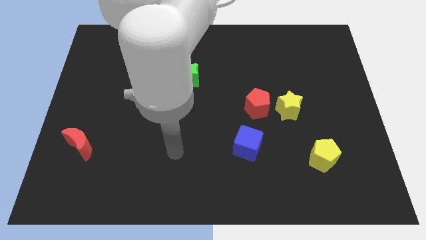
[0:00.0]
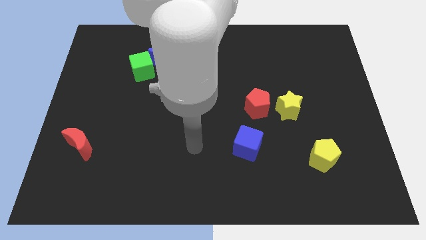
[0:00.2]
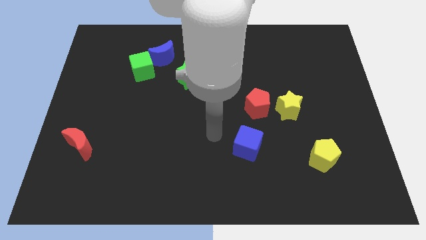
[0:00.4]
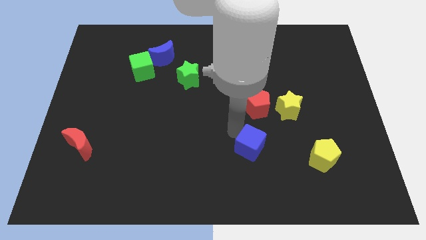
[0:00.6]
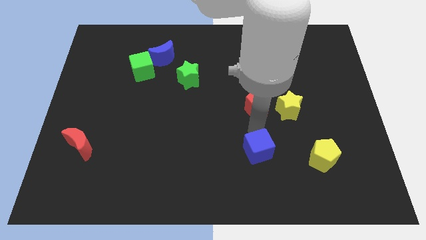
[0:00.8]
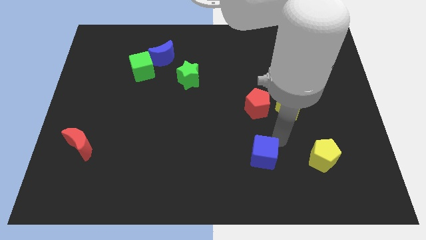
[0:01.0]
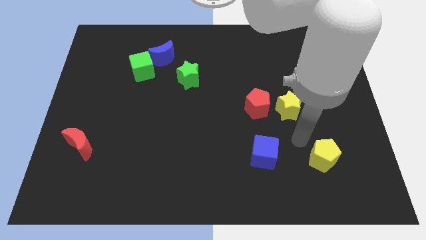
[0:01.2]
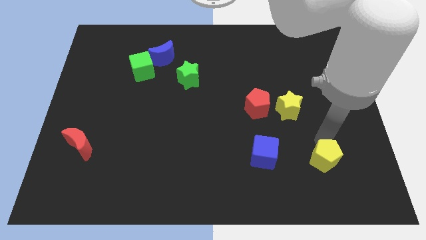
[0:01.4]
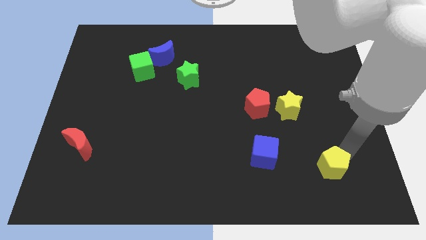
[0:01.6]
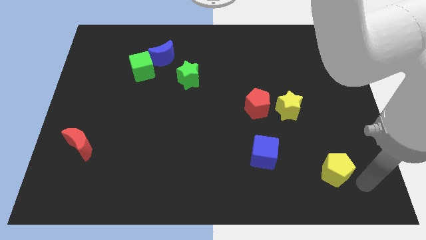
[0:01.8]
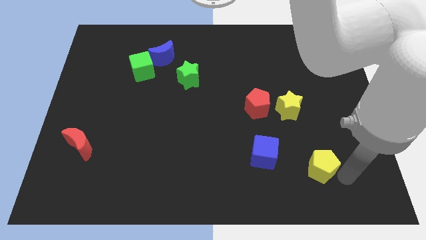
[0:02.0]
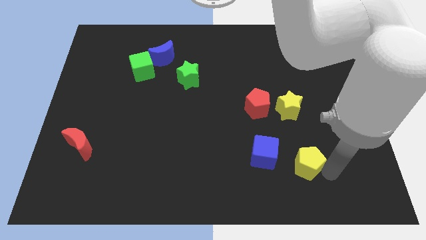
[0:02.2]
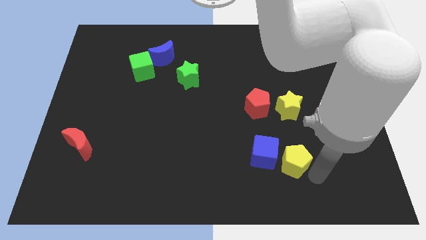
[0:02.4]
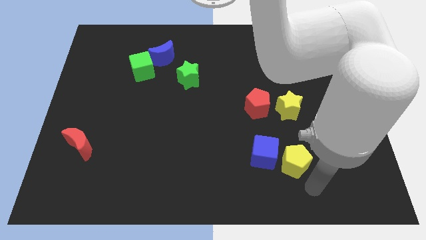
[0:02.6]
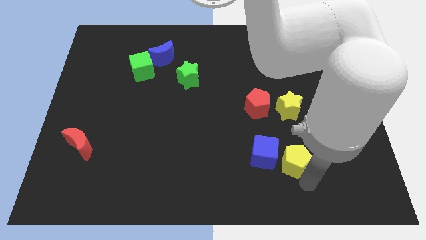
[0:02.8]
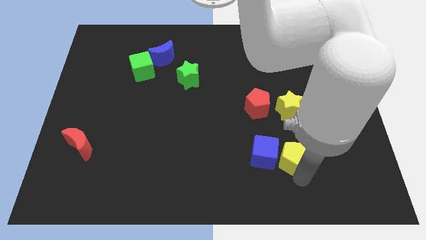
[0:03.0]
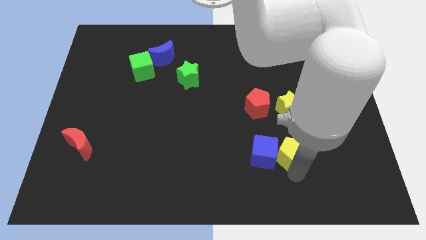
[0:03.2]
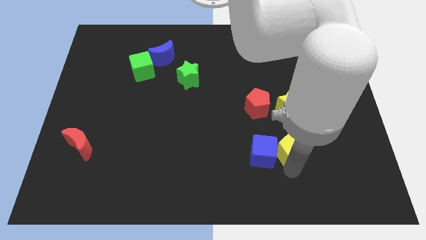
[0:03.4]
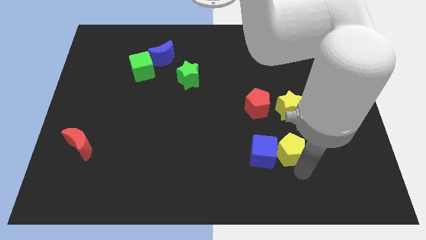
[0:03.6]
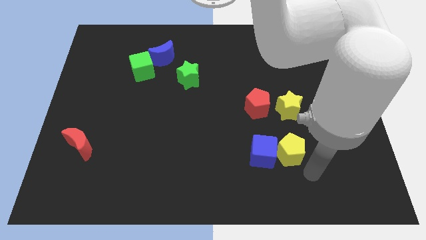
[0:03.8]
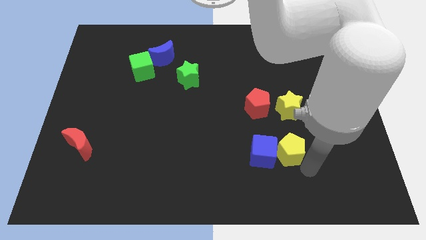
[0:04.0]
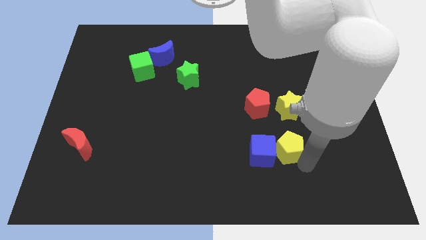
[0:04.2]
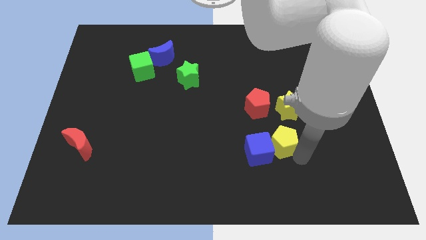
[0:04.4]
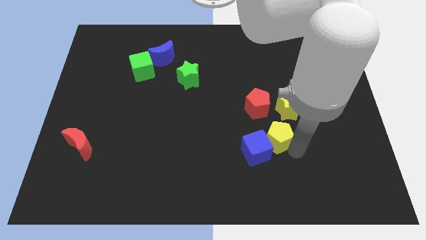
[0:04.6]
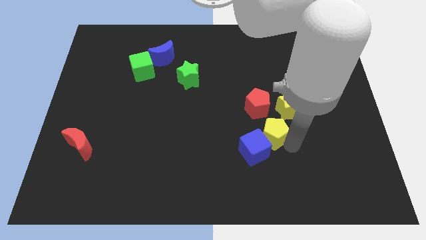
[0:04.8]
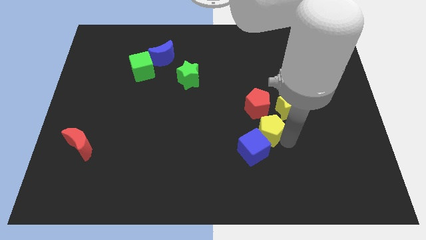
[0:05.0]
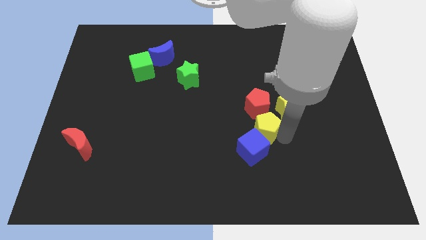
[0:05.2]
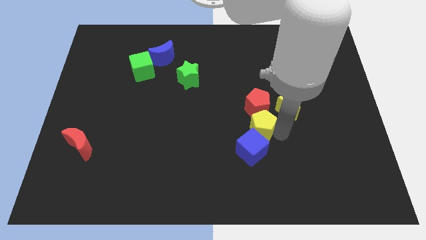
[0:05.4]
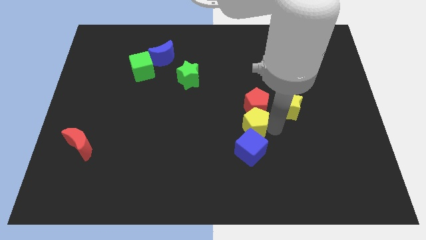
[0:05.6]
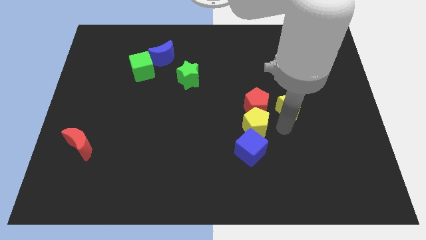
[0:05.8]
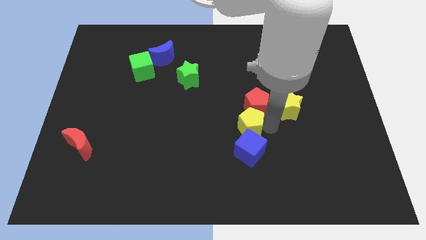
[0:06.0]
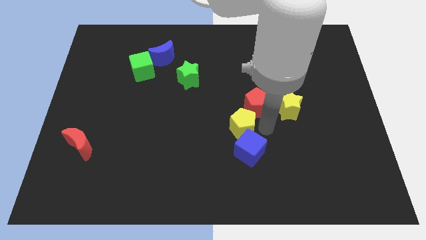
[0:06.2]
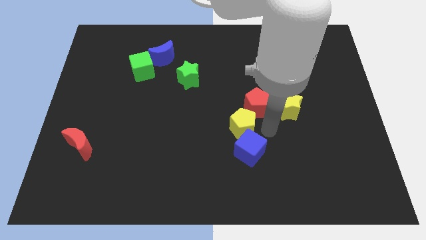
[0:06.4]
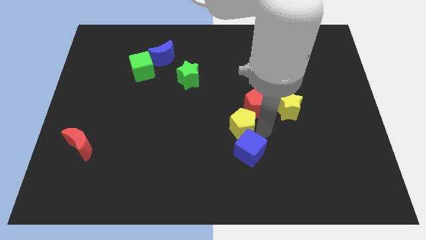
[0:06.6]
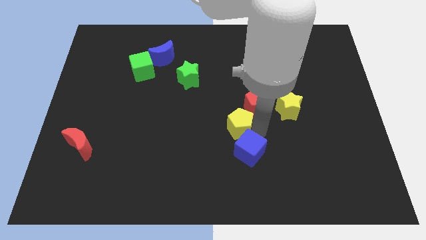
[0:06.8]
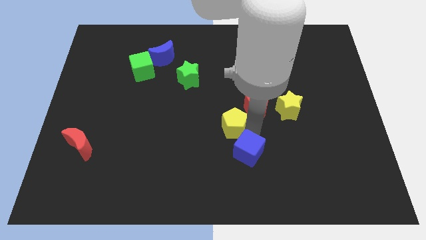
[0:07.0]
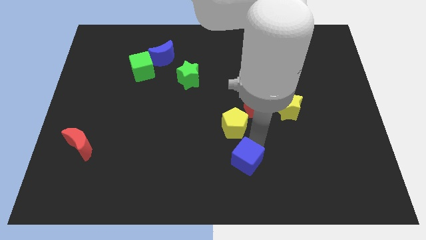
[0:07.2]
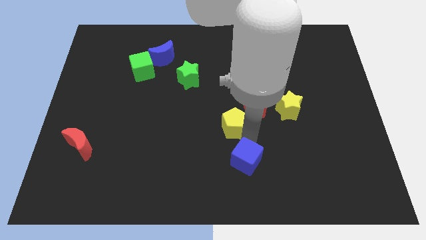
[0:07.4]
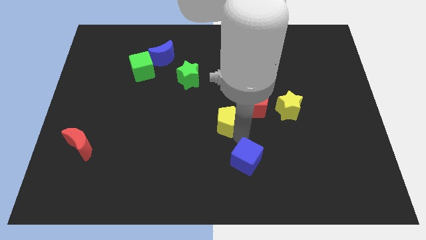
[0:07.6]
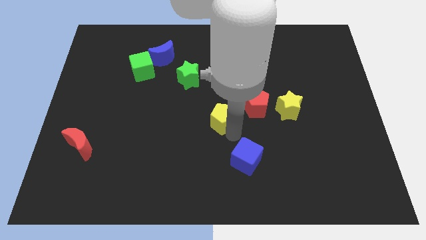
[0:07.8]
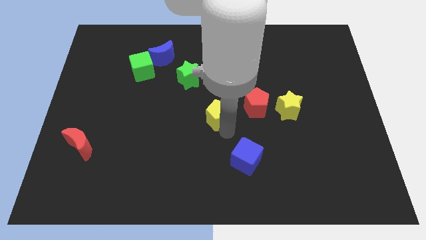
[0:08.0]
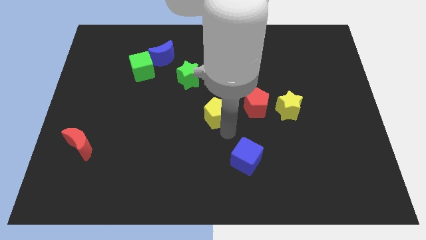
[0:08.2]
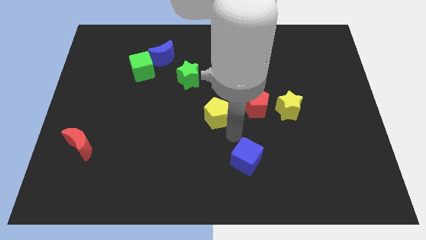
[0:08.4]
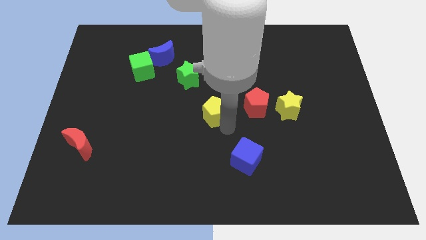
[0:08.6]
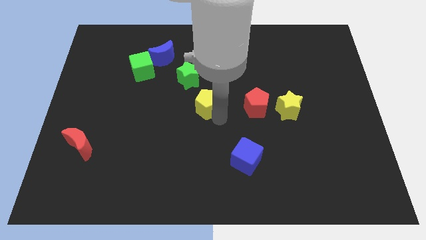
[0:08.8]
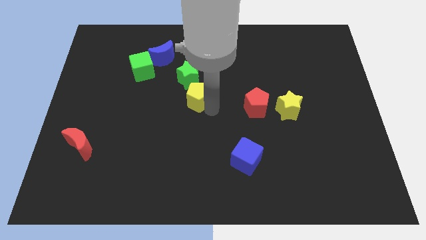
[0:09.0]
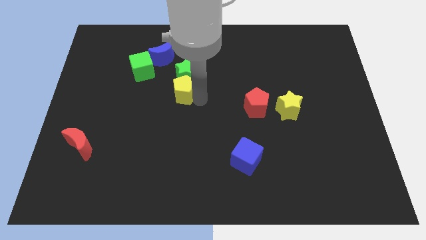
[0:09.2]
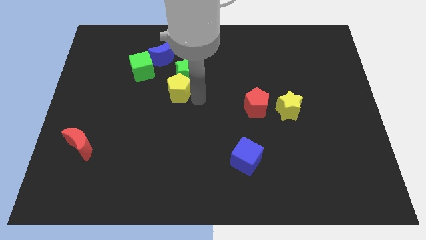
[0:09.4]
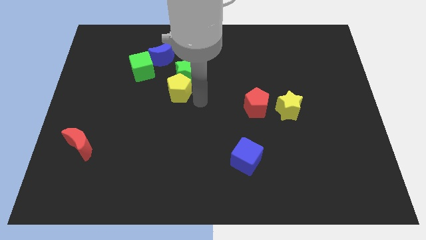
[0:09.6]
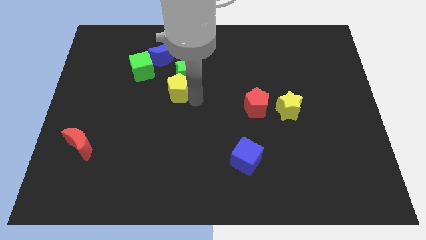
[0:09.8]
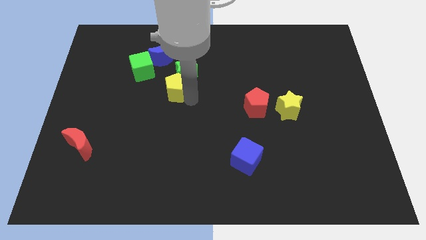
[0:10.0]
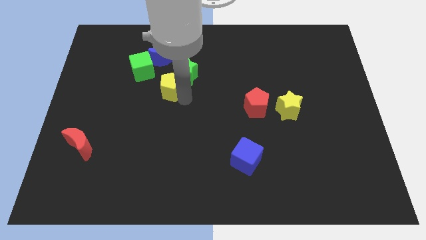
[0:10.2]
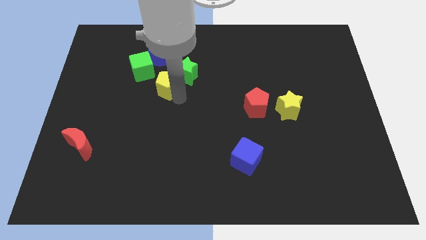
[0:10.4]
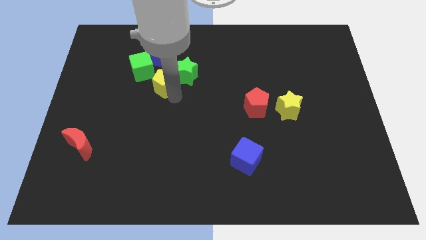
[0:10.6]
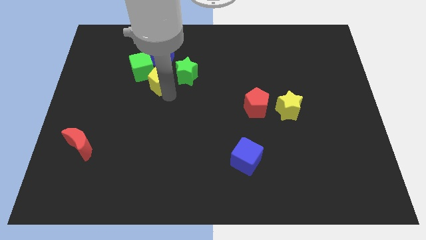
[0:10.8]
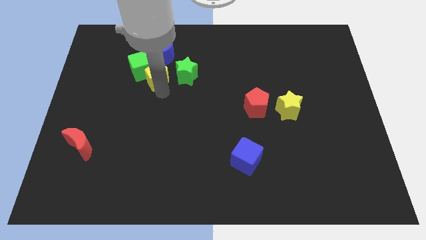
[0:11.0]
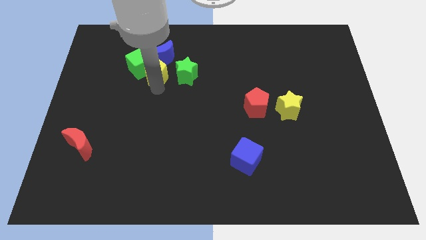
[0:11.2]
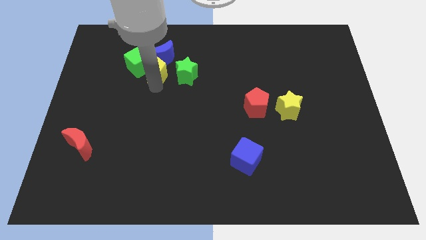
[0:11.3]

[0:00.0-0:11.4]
put the yellow pentagon next to the blue moon

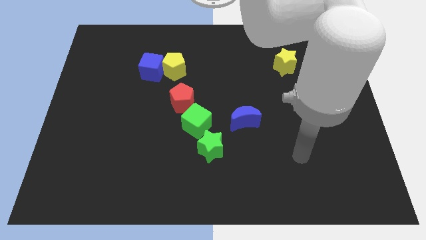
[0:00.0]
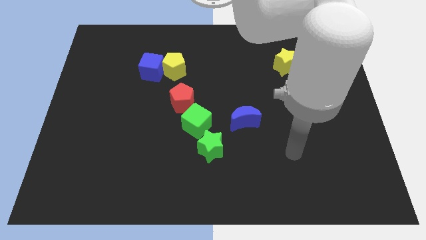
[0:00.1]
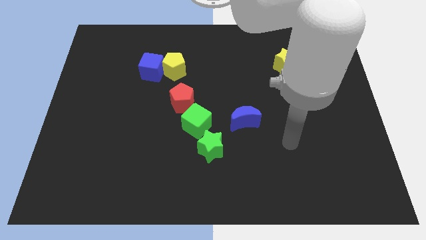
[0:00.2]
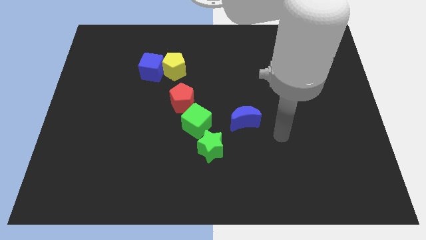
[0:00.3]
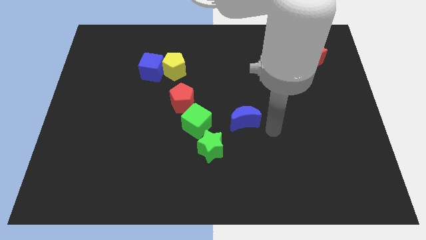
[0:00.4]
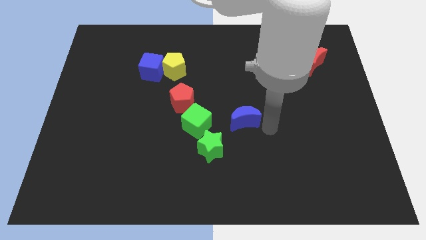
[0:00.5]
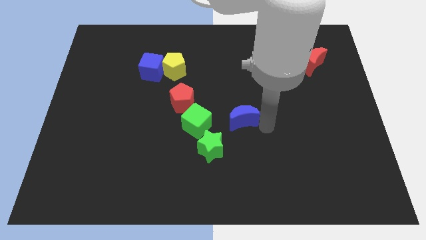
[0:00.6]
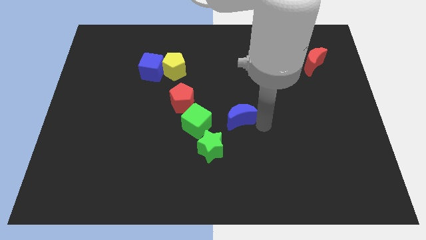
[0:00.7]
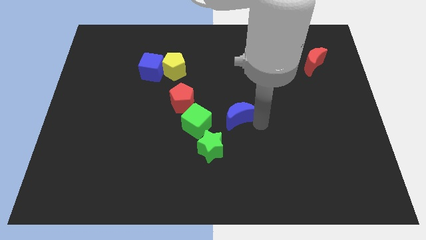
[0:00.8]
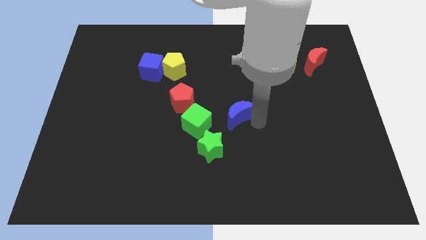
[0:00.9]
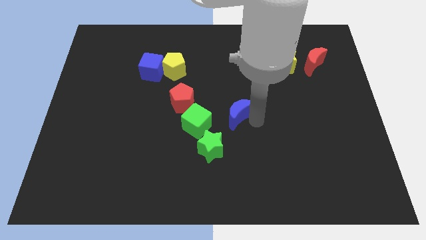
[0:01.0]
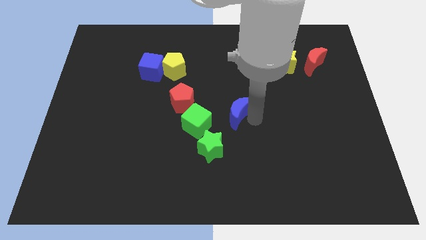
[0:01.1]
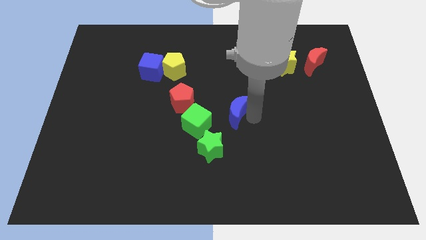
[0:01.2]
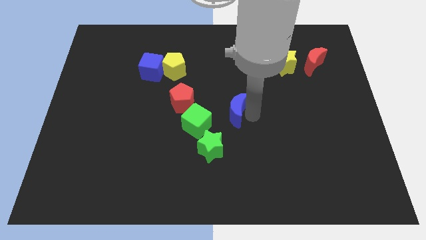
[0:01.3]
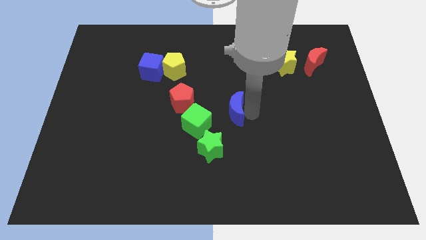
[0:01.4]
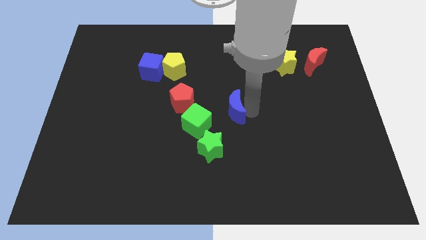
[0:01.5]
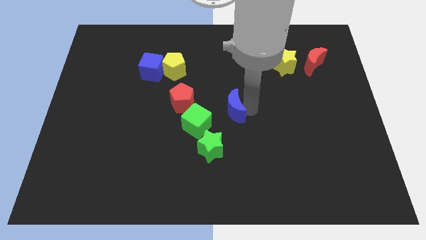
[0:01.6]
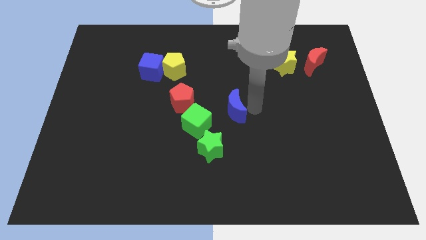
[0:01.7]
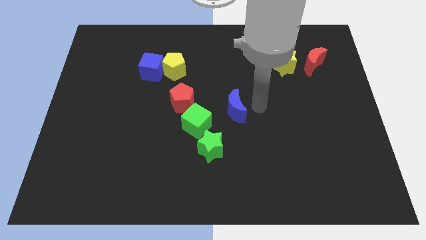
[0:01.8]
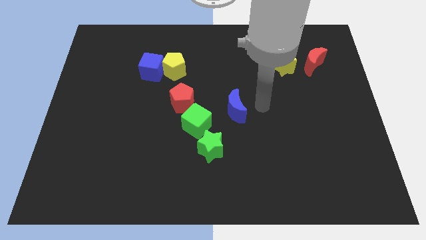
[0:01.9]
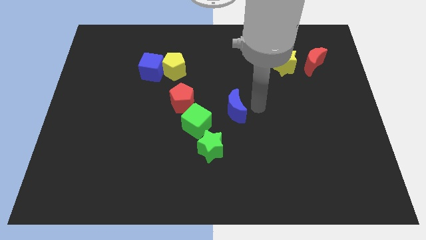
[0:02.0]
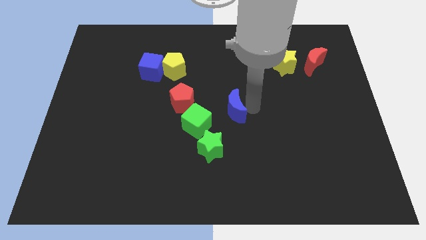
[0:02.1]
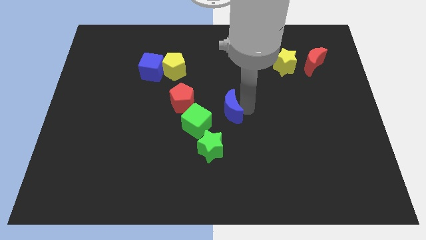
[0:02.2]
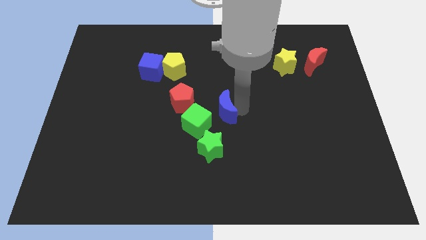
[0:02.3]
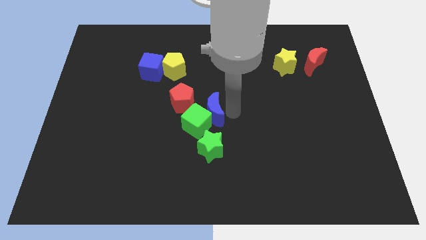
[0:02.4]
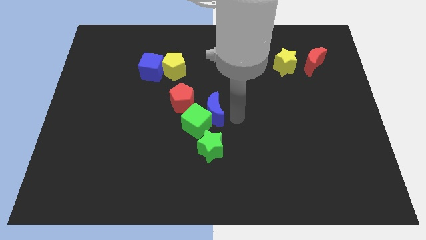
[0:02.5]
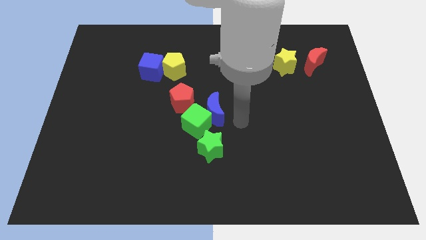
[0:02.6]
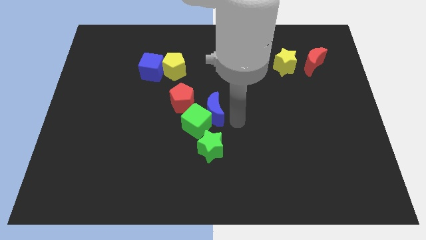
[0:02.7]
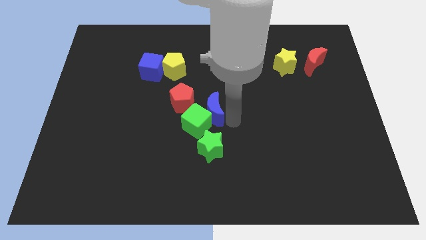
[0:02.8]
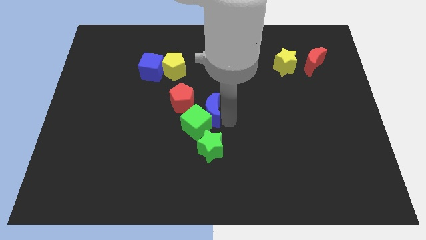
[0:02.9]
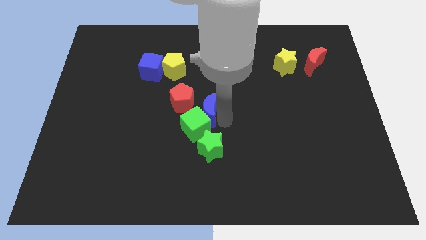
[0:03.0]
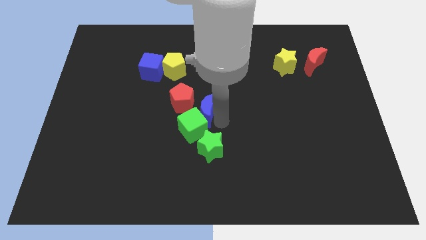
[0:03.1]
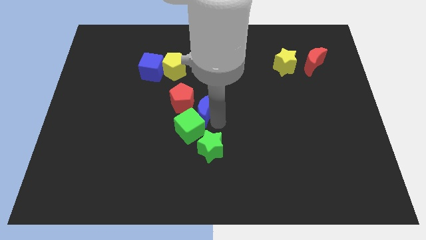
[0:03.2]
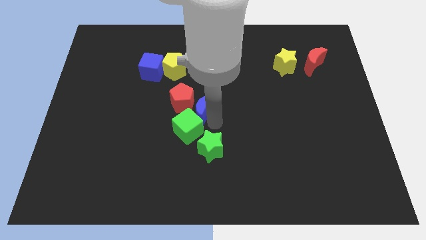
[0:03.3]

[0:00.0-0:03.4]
slide the blue moon next to the red pentagon
